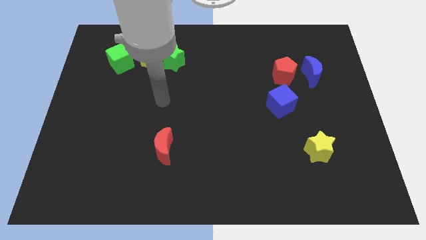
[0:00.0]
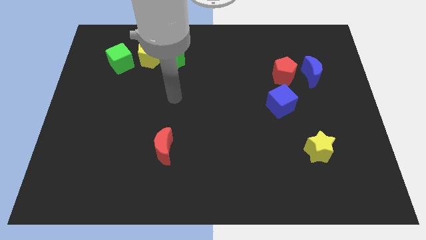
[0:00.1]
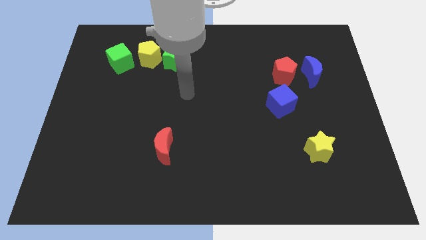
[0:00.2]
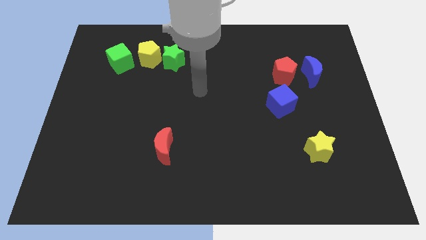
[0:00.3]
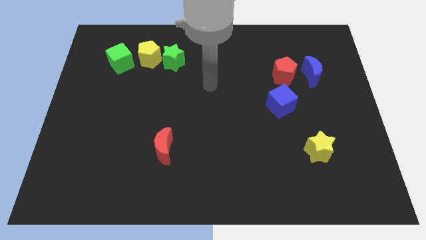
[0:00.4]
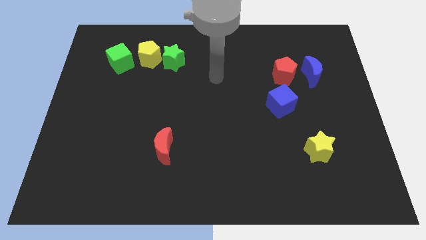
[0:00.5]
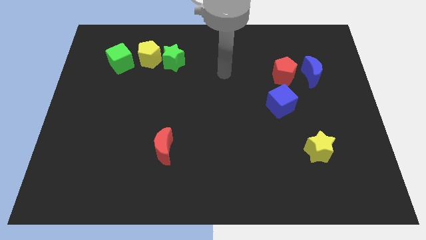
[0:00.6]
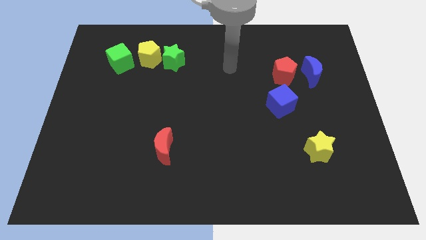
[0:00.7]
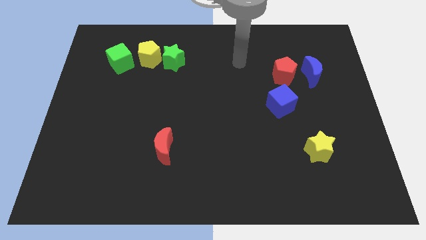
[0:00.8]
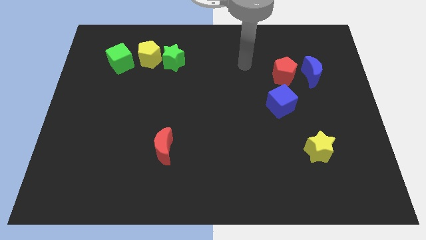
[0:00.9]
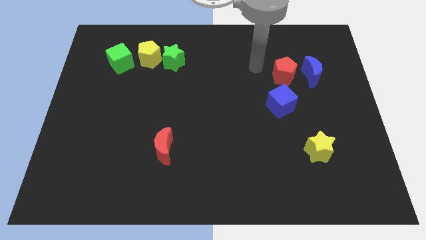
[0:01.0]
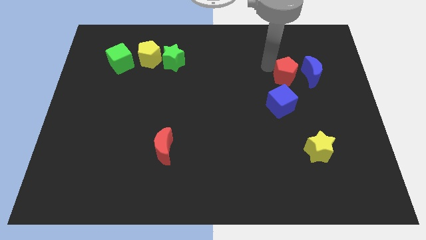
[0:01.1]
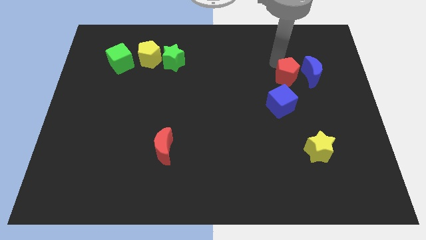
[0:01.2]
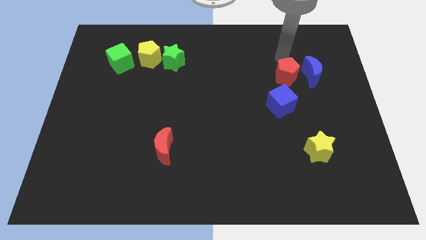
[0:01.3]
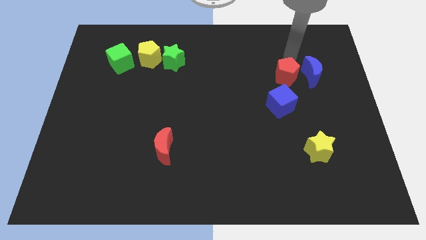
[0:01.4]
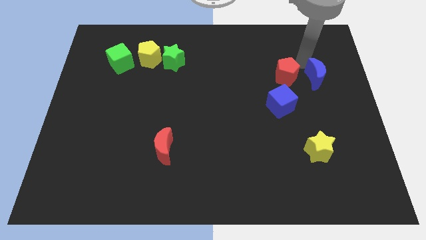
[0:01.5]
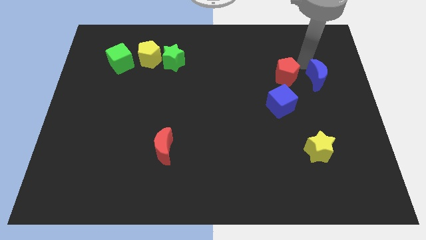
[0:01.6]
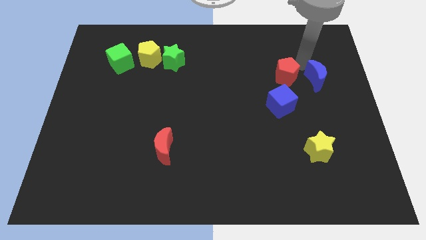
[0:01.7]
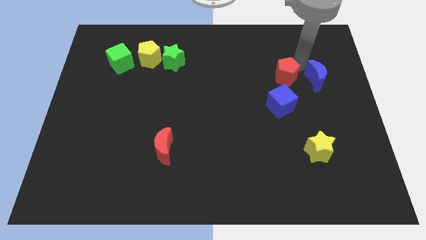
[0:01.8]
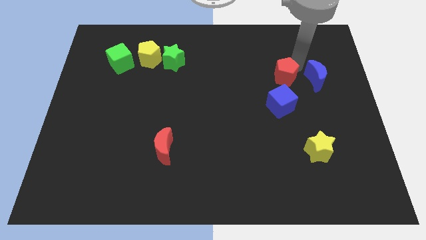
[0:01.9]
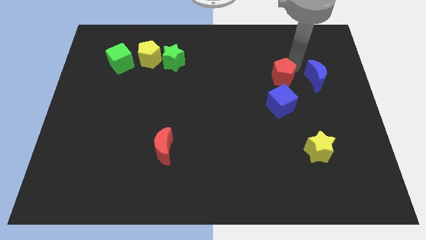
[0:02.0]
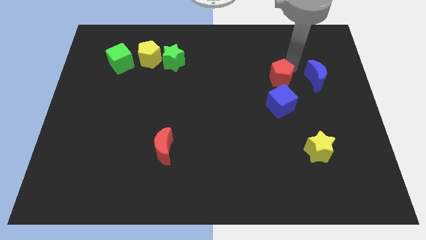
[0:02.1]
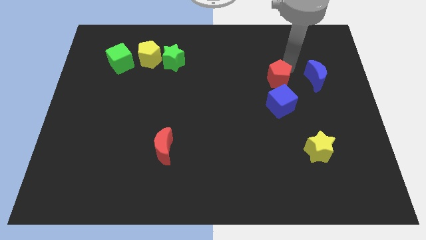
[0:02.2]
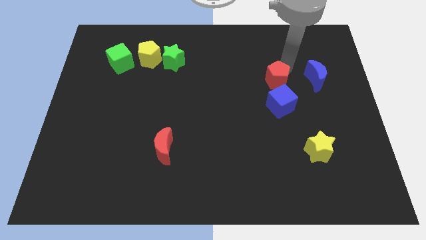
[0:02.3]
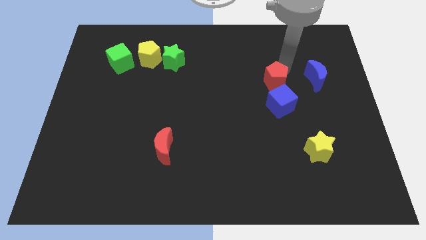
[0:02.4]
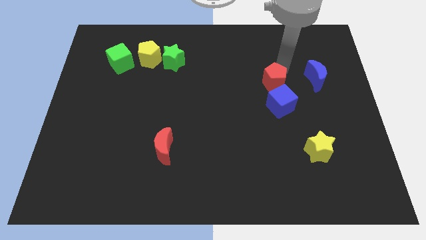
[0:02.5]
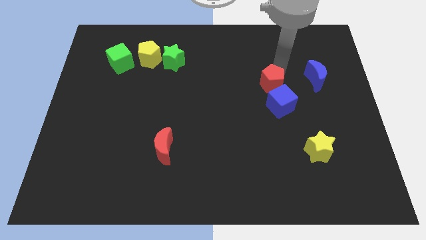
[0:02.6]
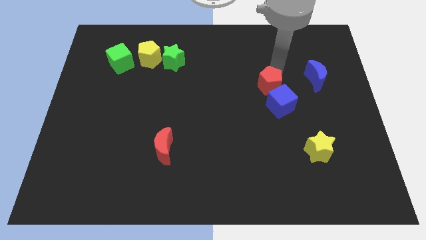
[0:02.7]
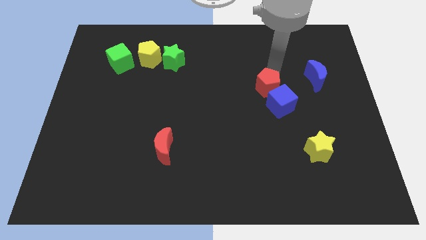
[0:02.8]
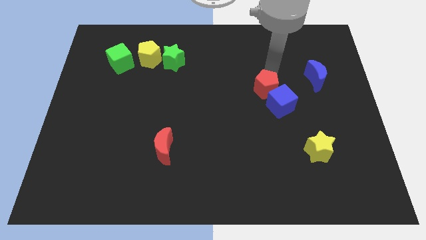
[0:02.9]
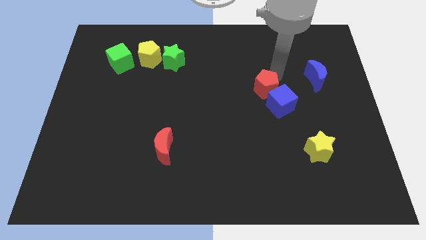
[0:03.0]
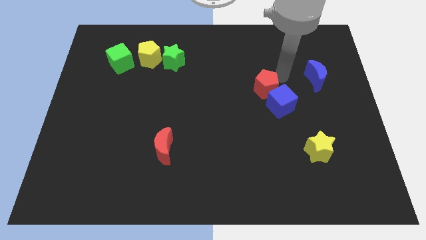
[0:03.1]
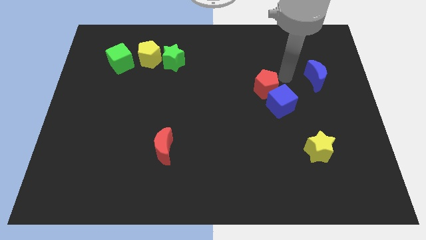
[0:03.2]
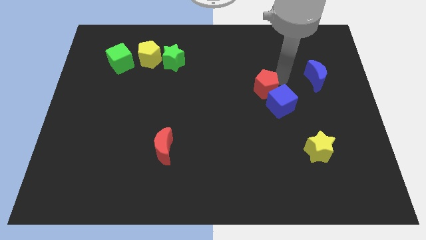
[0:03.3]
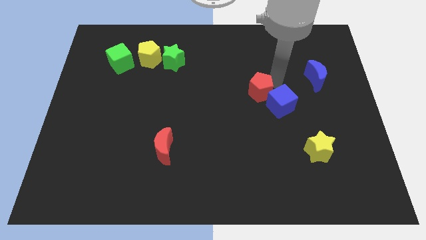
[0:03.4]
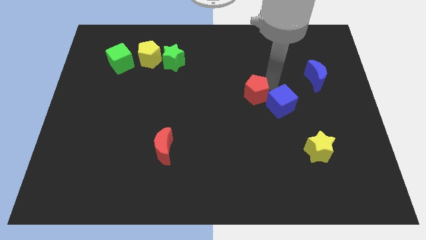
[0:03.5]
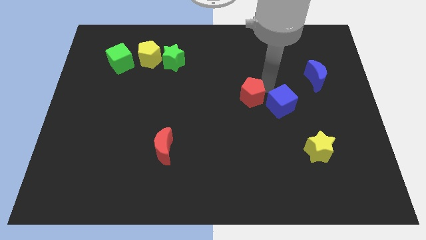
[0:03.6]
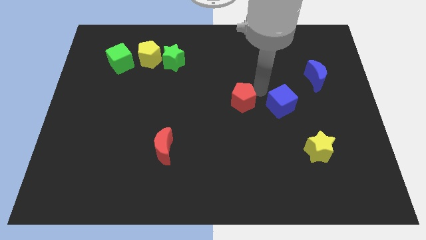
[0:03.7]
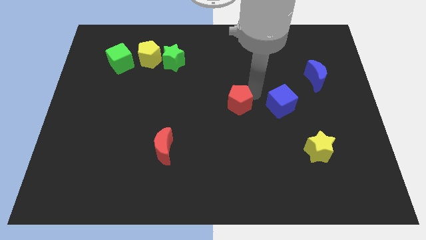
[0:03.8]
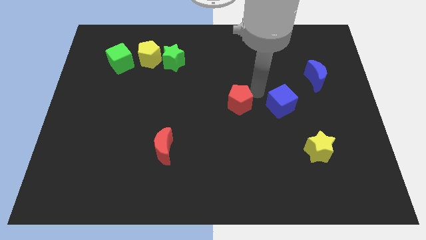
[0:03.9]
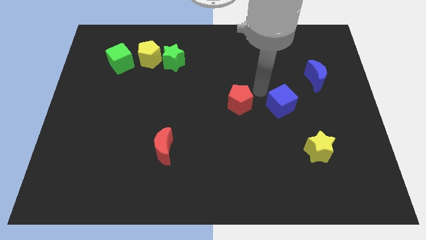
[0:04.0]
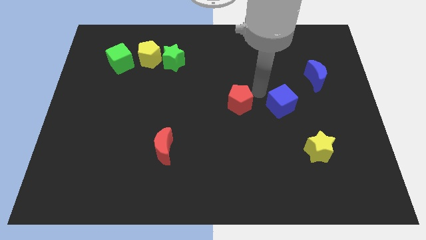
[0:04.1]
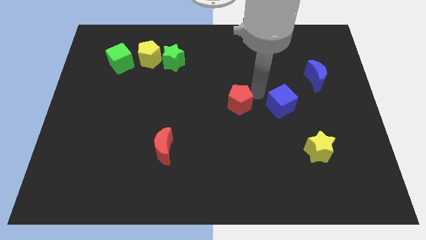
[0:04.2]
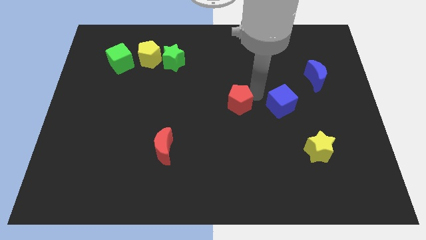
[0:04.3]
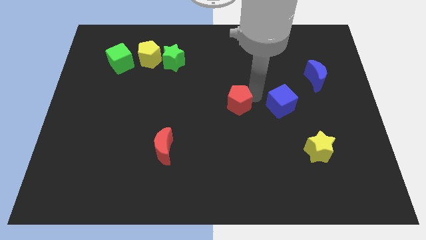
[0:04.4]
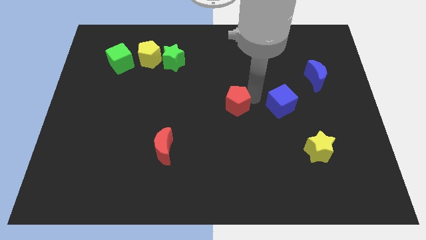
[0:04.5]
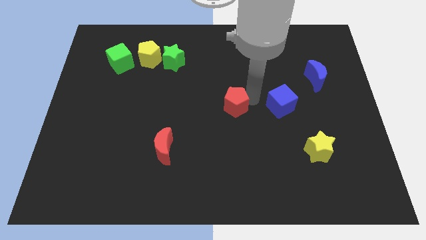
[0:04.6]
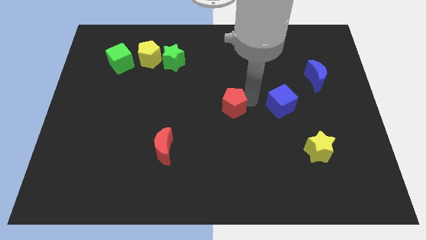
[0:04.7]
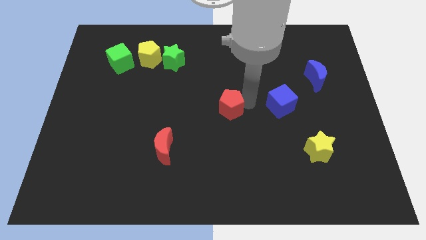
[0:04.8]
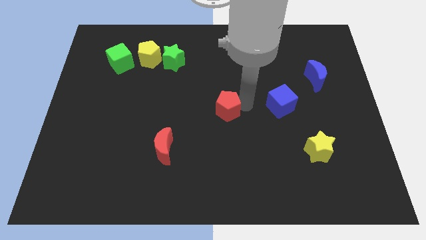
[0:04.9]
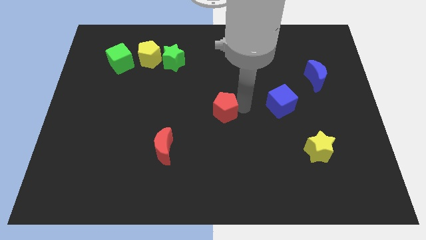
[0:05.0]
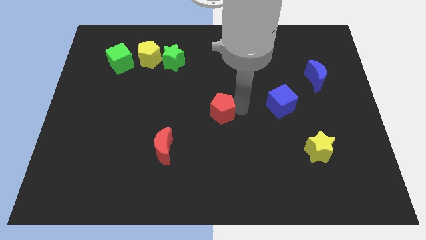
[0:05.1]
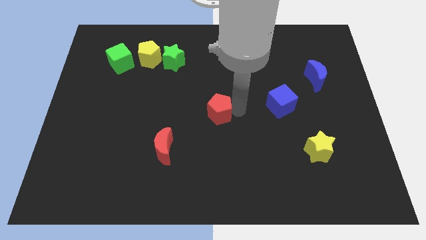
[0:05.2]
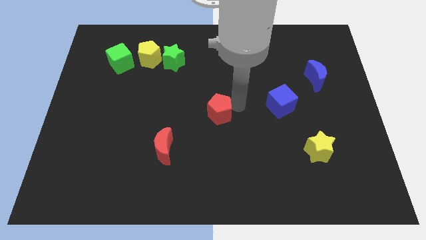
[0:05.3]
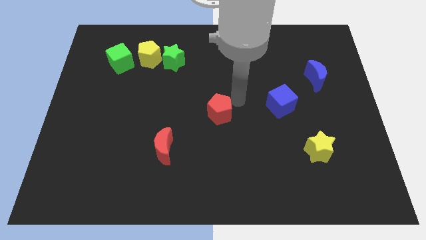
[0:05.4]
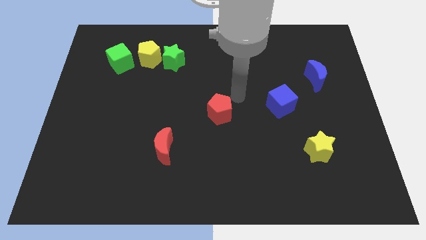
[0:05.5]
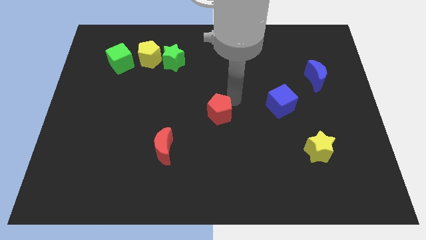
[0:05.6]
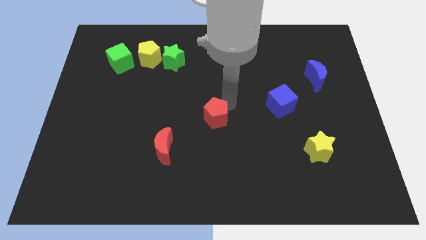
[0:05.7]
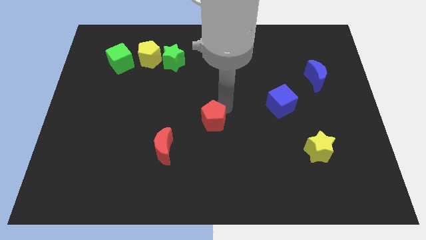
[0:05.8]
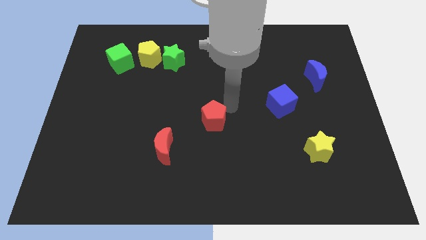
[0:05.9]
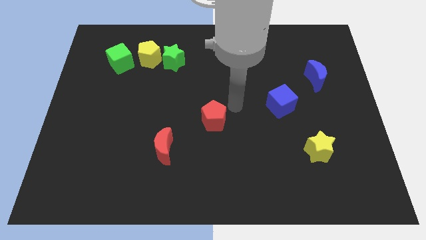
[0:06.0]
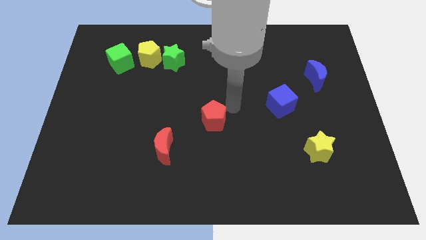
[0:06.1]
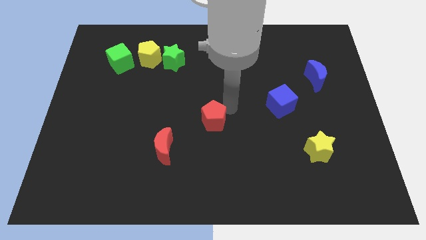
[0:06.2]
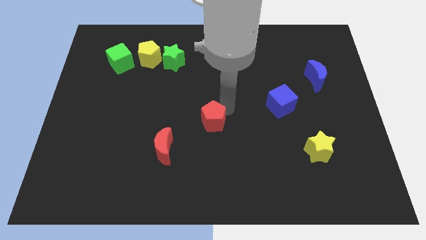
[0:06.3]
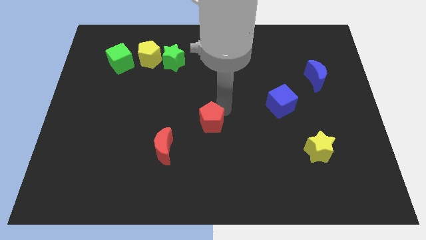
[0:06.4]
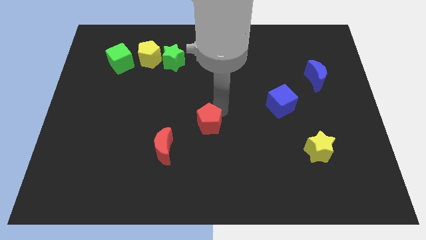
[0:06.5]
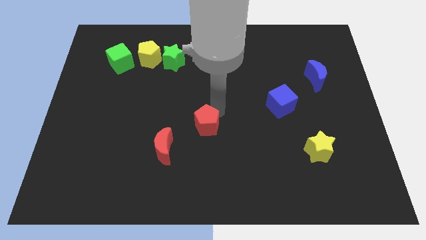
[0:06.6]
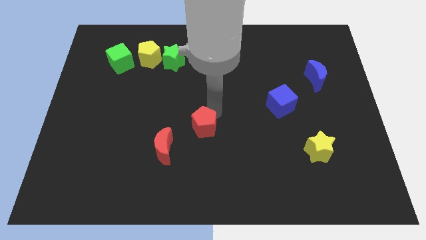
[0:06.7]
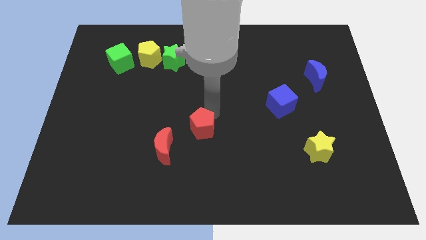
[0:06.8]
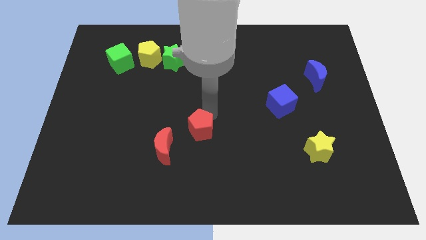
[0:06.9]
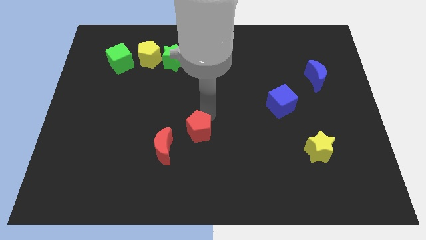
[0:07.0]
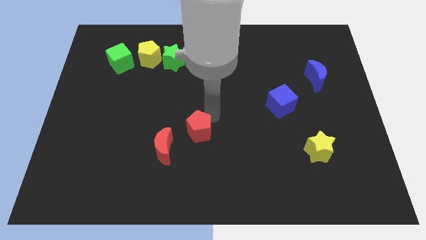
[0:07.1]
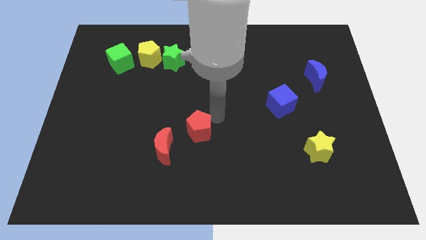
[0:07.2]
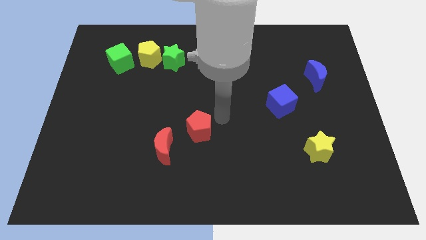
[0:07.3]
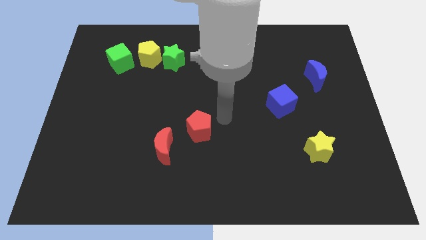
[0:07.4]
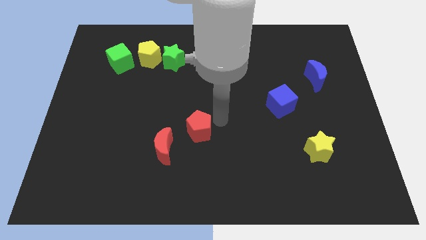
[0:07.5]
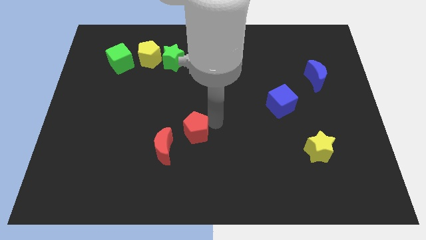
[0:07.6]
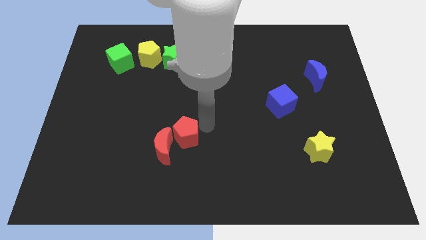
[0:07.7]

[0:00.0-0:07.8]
push the red pentagon towards the red moon
